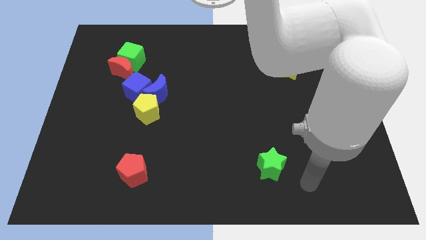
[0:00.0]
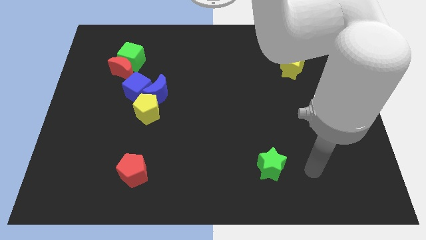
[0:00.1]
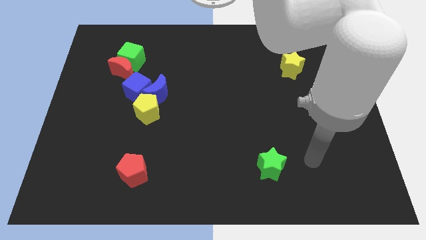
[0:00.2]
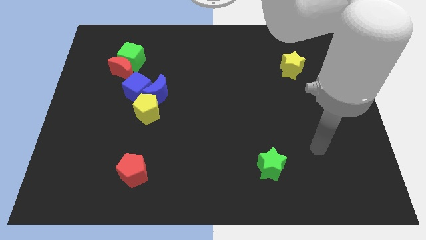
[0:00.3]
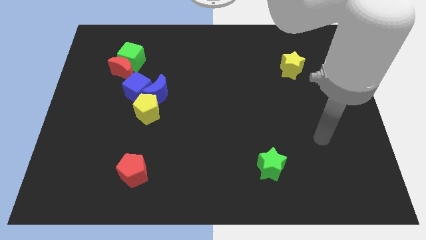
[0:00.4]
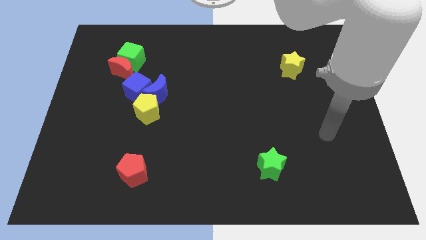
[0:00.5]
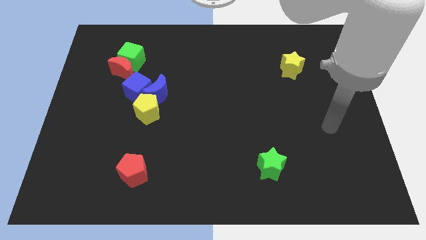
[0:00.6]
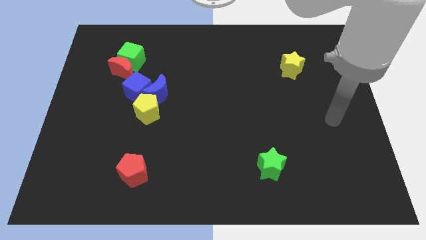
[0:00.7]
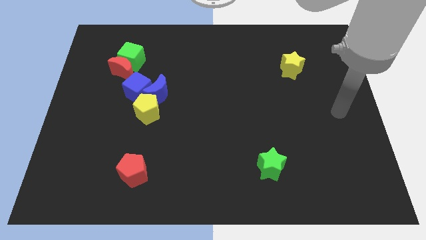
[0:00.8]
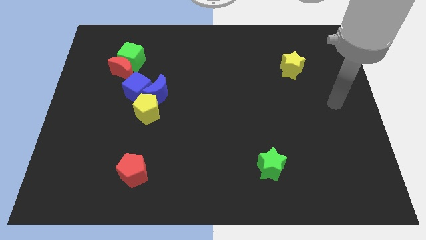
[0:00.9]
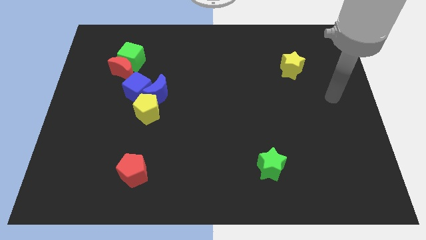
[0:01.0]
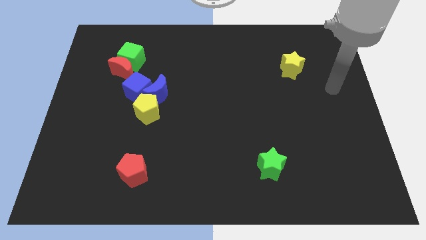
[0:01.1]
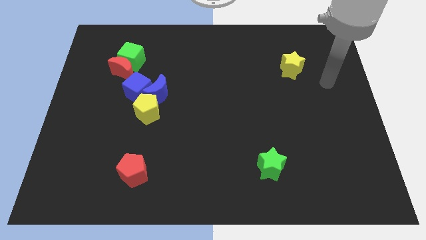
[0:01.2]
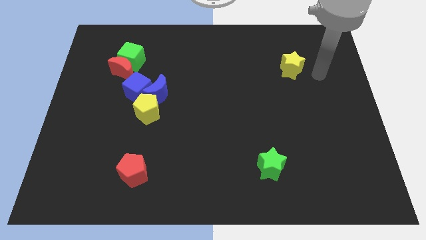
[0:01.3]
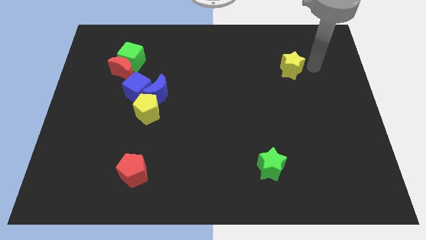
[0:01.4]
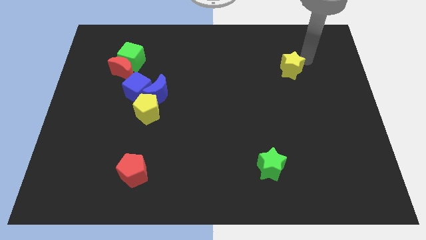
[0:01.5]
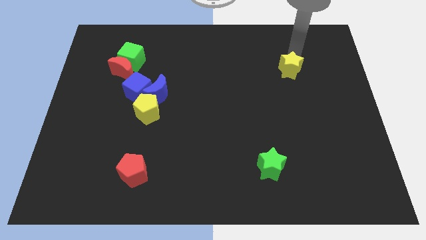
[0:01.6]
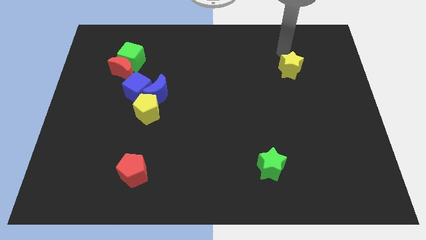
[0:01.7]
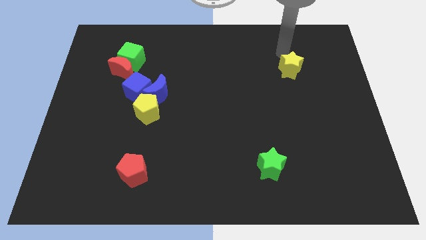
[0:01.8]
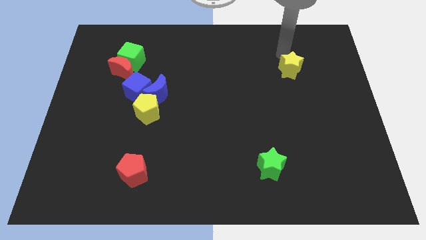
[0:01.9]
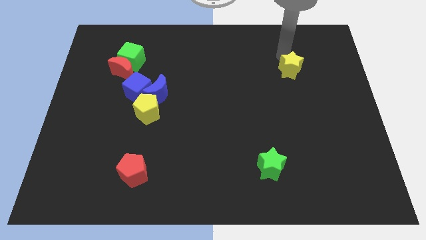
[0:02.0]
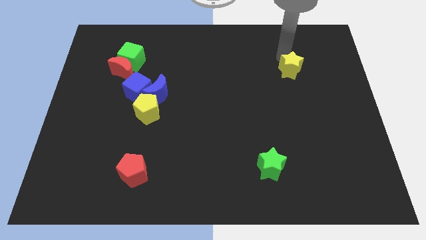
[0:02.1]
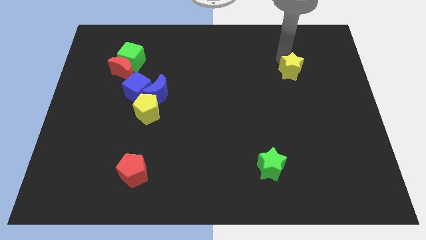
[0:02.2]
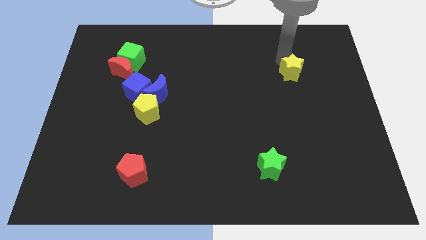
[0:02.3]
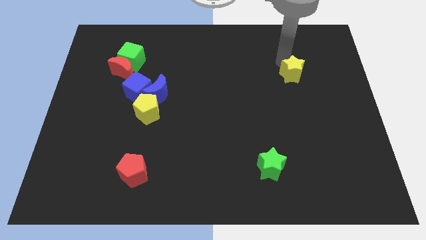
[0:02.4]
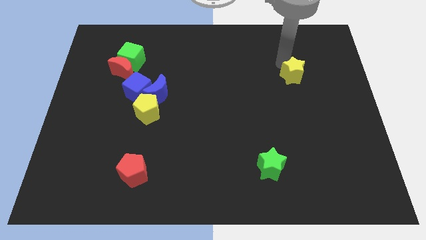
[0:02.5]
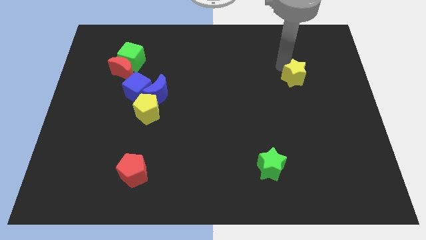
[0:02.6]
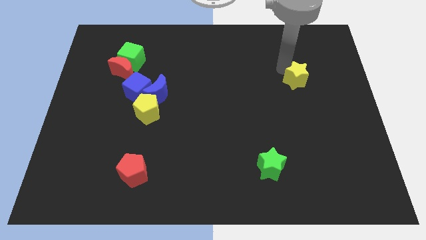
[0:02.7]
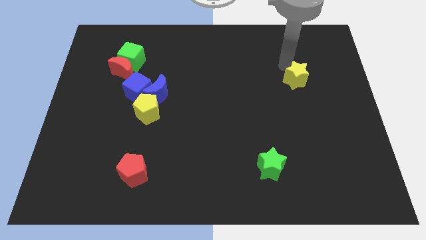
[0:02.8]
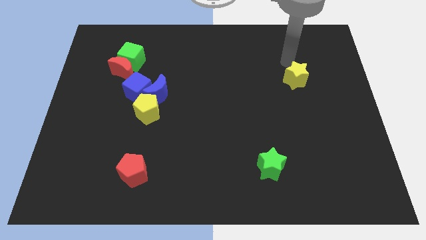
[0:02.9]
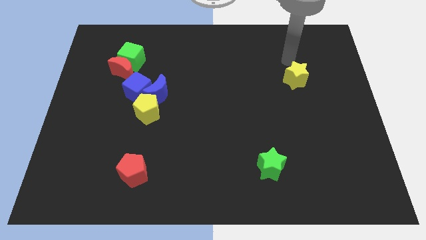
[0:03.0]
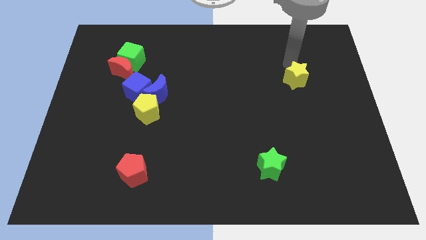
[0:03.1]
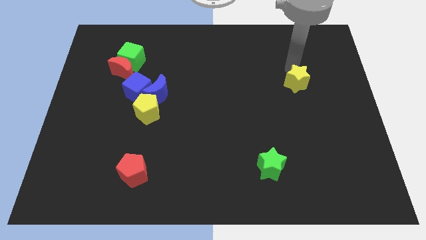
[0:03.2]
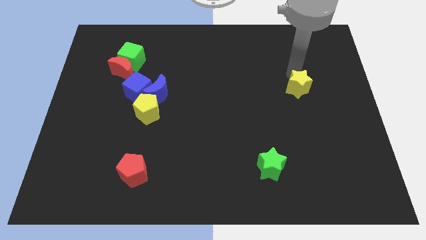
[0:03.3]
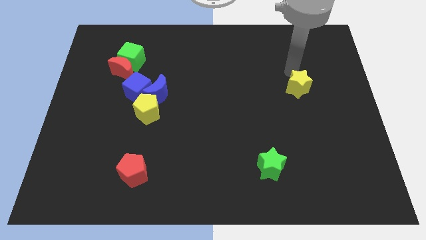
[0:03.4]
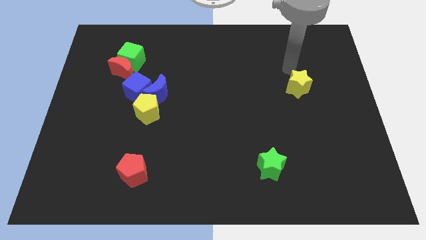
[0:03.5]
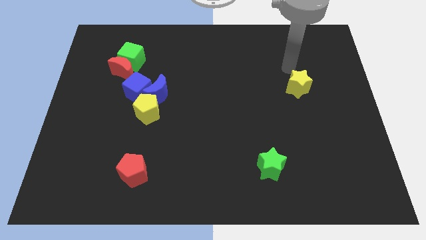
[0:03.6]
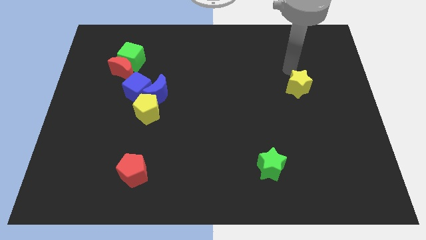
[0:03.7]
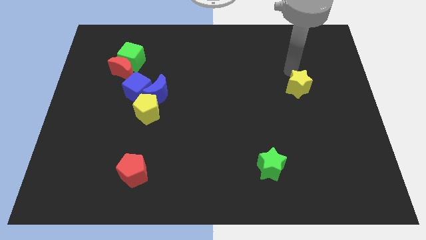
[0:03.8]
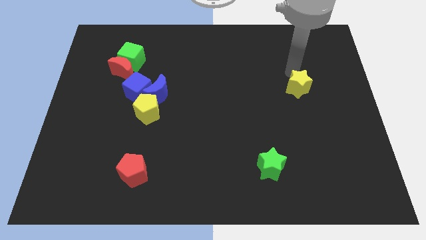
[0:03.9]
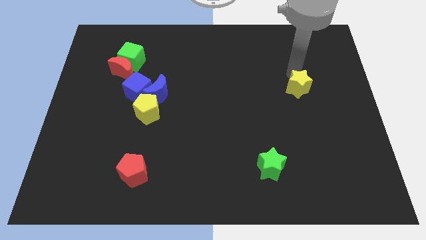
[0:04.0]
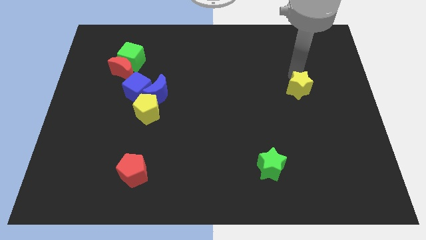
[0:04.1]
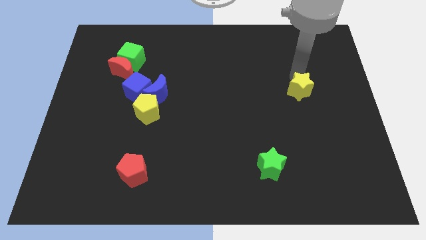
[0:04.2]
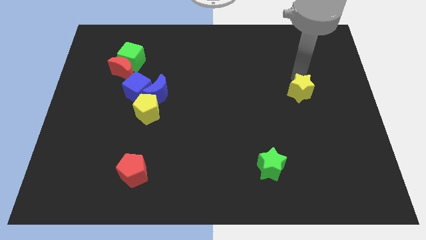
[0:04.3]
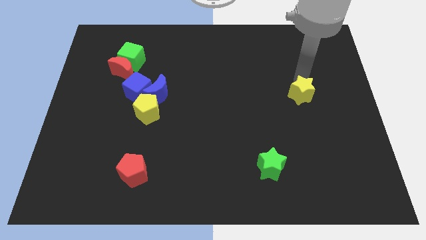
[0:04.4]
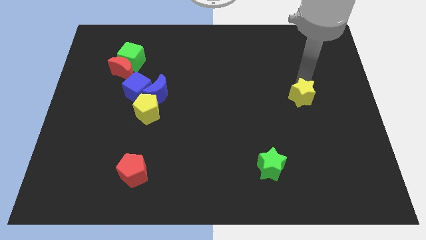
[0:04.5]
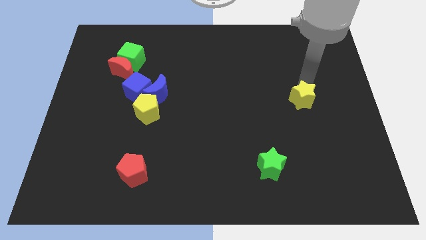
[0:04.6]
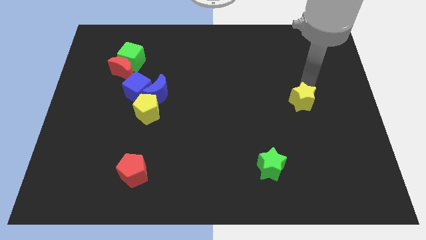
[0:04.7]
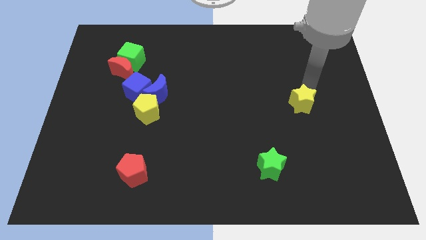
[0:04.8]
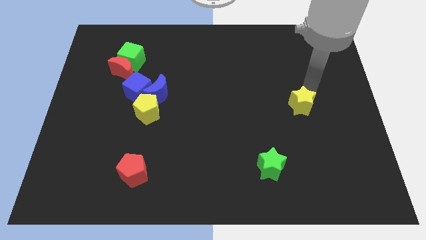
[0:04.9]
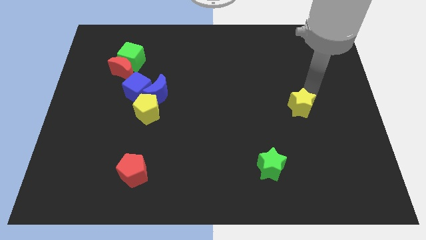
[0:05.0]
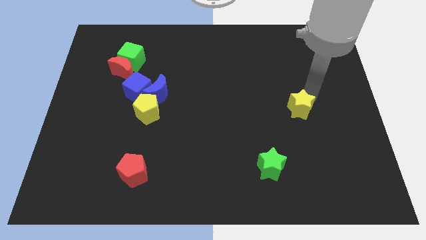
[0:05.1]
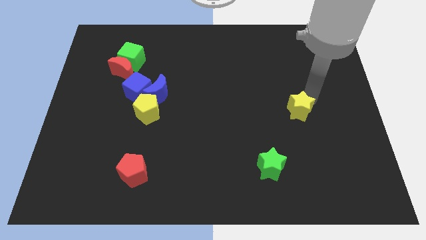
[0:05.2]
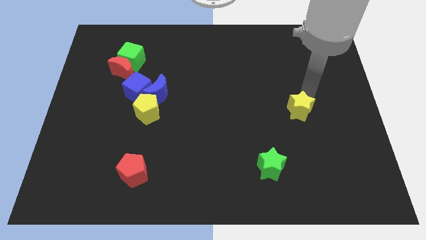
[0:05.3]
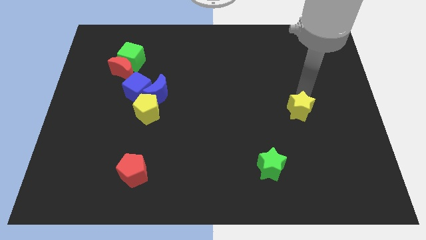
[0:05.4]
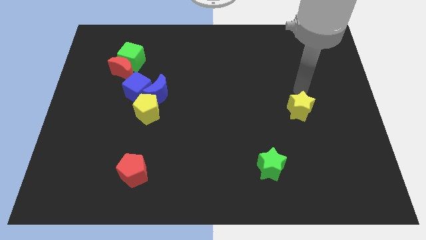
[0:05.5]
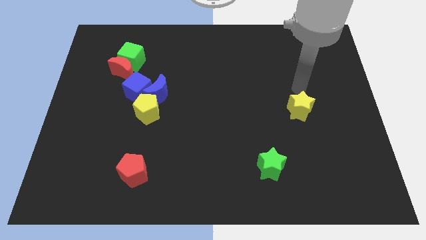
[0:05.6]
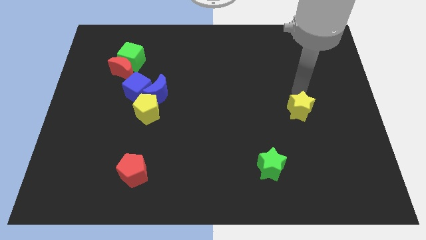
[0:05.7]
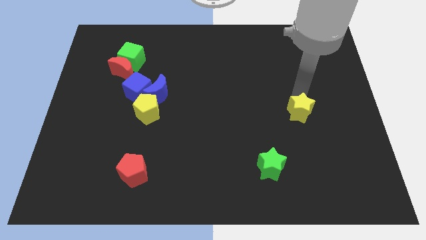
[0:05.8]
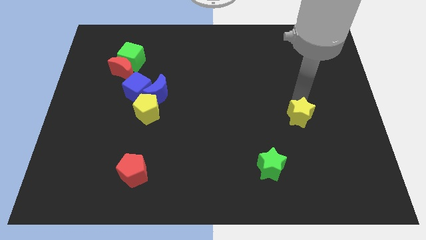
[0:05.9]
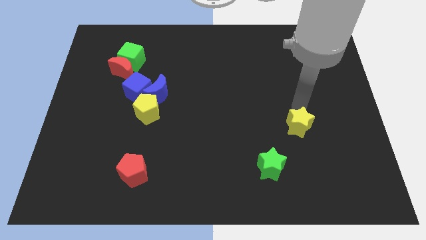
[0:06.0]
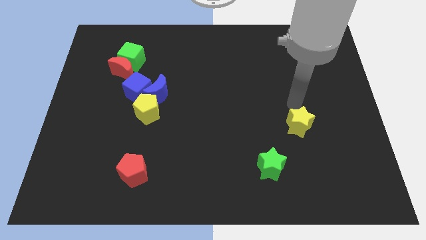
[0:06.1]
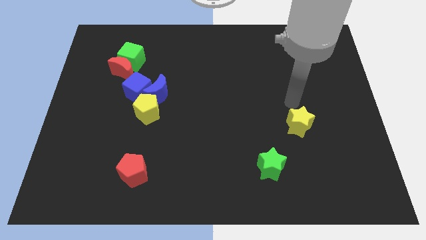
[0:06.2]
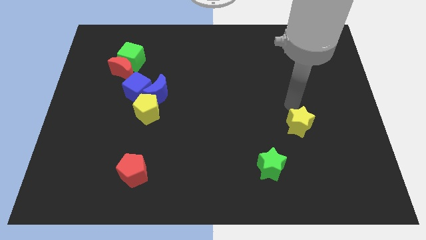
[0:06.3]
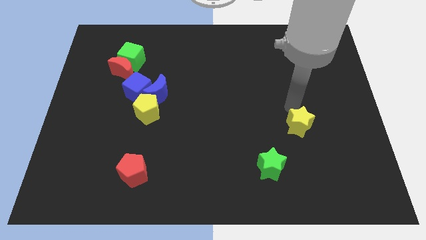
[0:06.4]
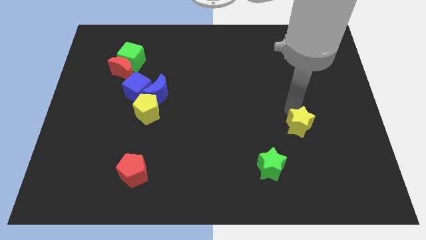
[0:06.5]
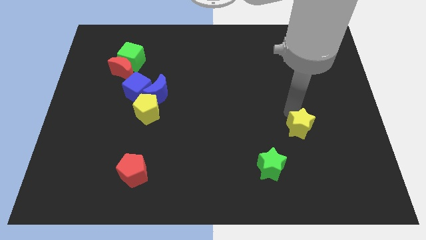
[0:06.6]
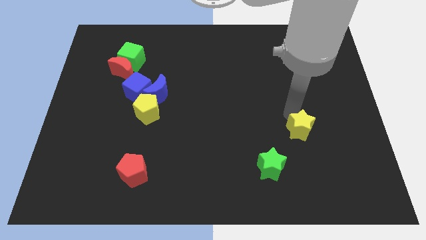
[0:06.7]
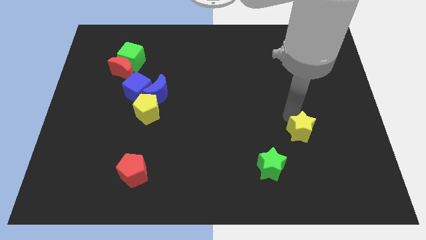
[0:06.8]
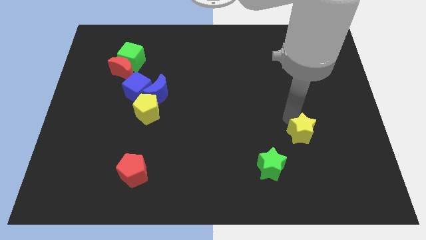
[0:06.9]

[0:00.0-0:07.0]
slide the yellow star downwards

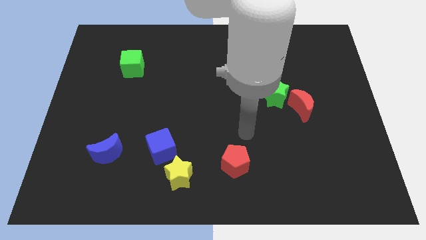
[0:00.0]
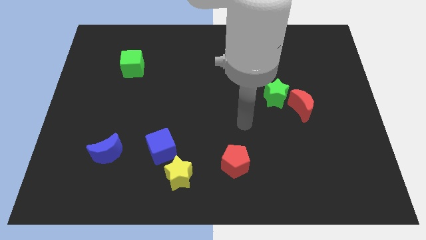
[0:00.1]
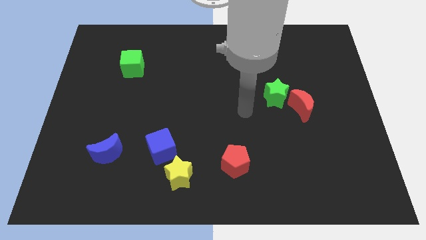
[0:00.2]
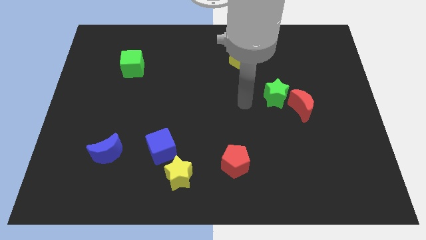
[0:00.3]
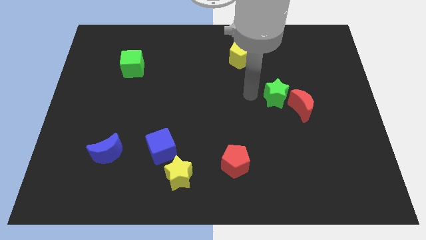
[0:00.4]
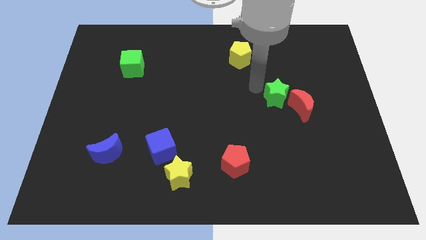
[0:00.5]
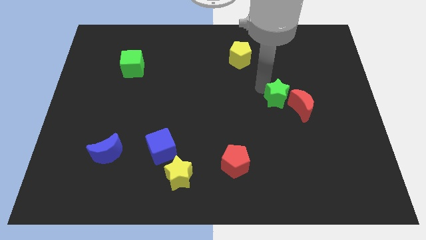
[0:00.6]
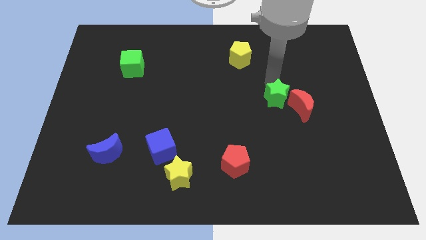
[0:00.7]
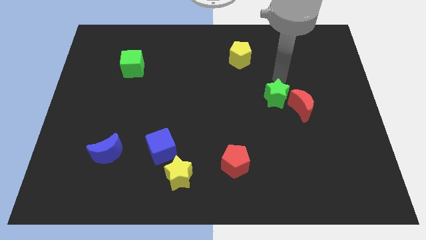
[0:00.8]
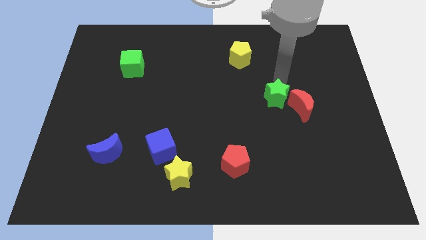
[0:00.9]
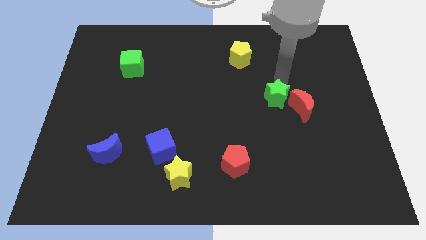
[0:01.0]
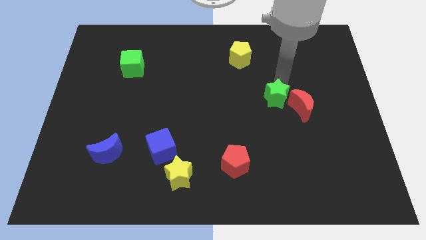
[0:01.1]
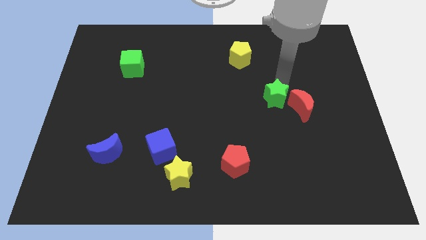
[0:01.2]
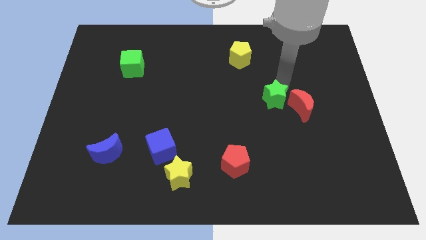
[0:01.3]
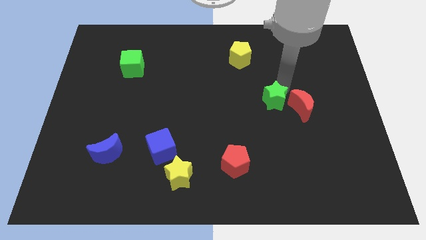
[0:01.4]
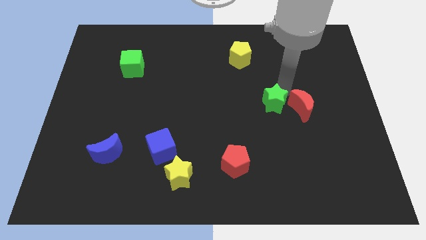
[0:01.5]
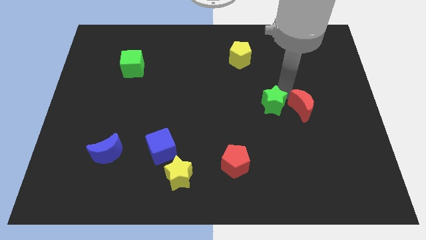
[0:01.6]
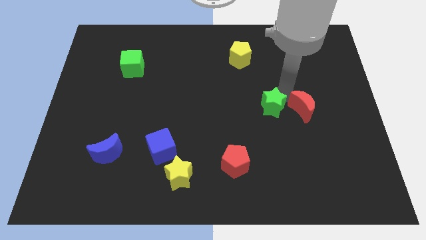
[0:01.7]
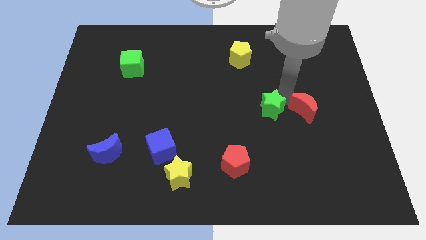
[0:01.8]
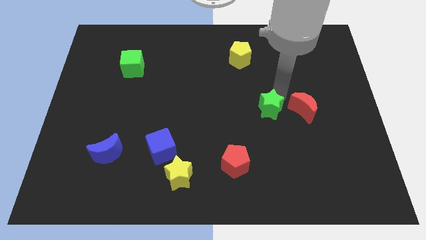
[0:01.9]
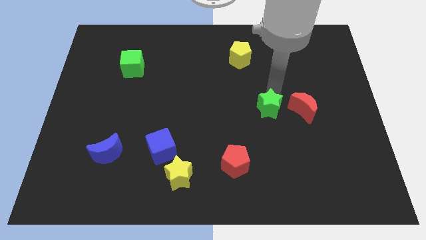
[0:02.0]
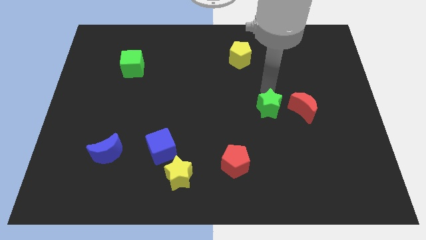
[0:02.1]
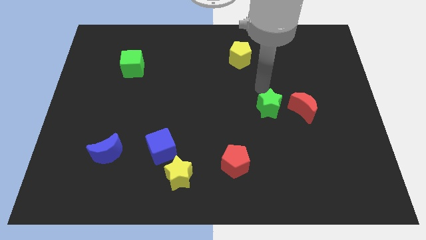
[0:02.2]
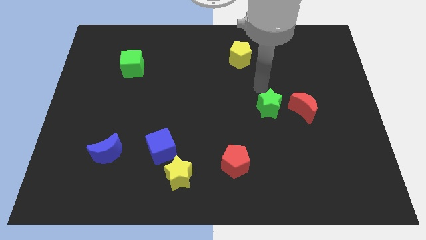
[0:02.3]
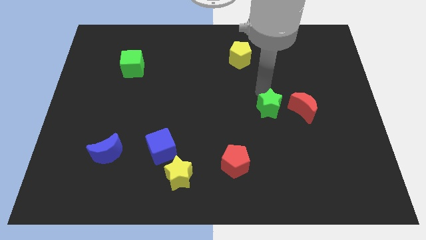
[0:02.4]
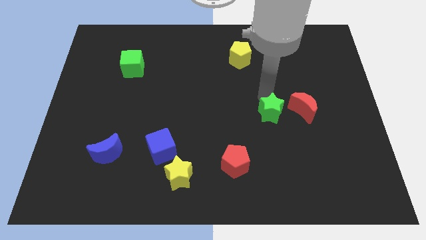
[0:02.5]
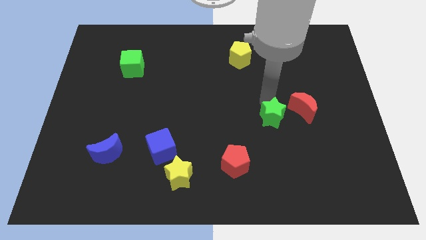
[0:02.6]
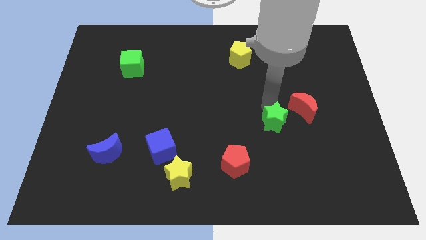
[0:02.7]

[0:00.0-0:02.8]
slightly slide the green star down
